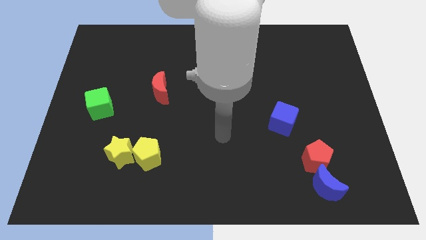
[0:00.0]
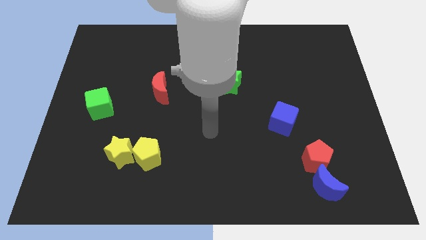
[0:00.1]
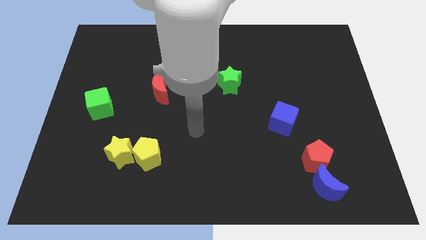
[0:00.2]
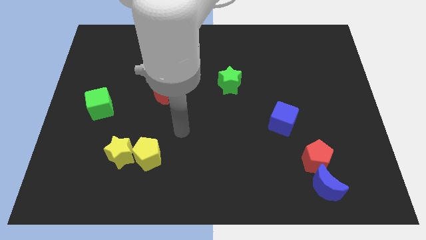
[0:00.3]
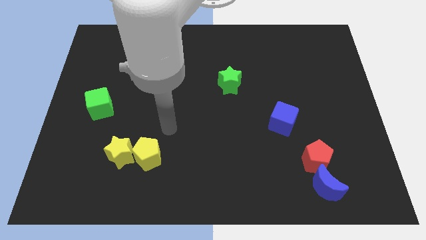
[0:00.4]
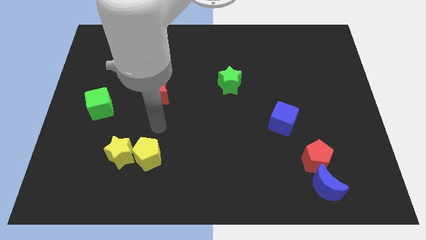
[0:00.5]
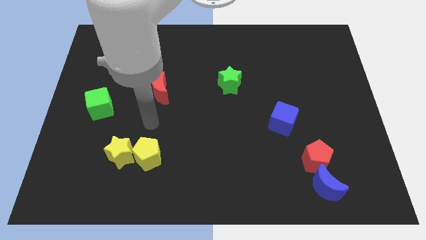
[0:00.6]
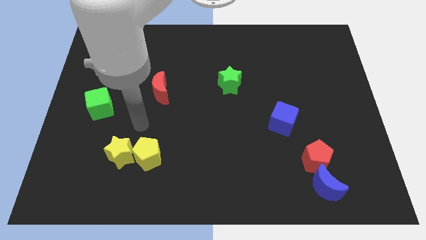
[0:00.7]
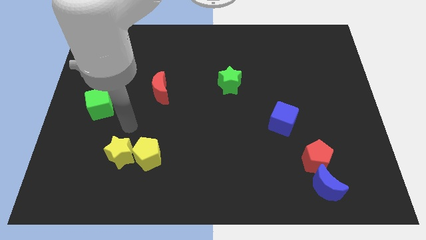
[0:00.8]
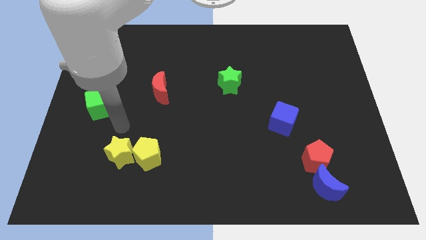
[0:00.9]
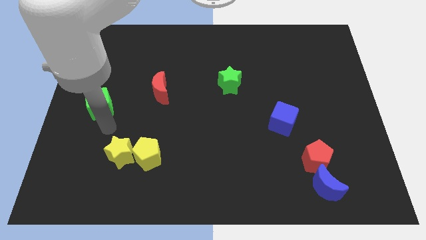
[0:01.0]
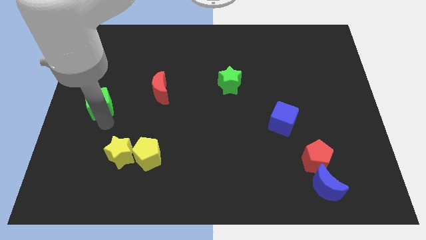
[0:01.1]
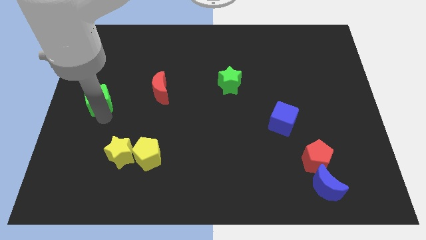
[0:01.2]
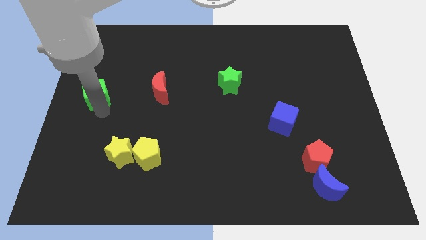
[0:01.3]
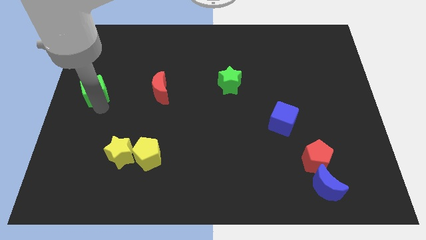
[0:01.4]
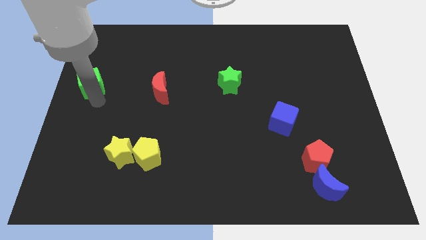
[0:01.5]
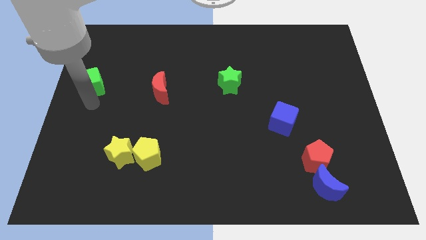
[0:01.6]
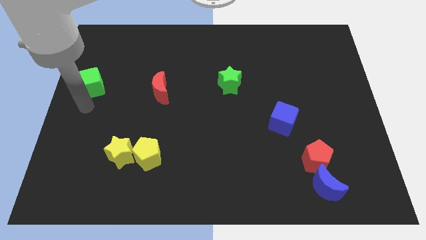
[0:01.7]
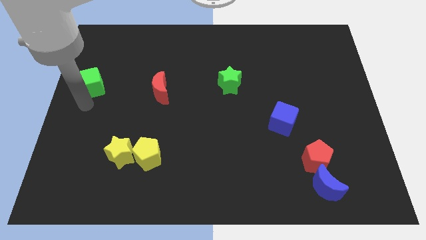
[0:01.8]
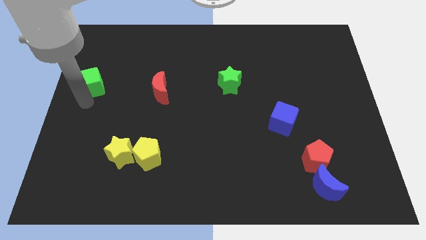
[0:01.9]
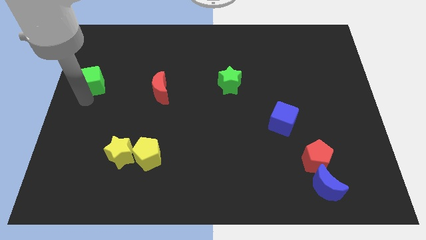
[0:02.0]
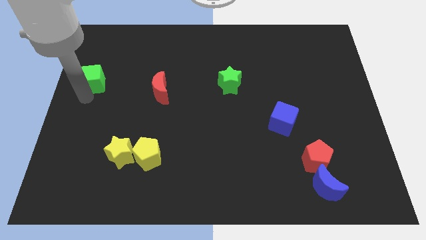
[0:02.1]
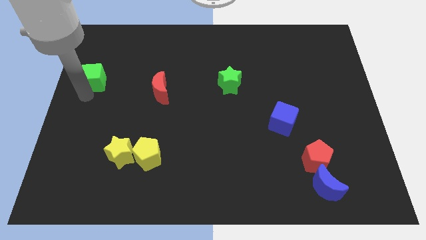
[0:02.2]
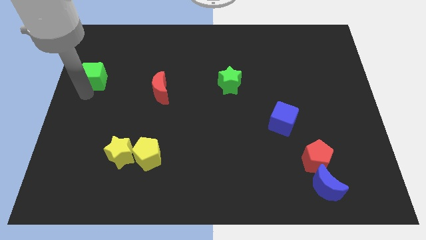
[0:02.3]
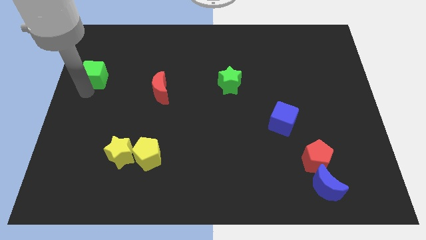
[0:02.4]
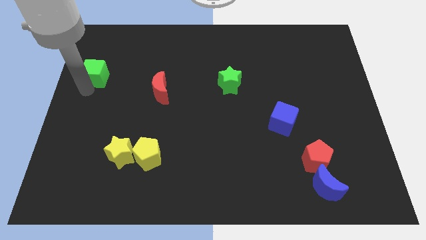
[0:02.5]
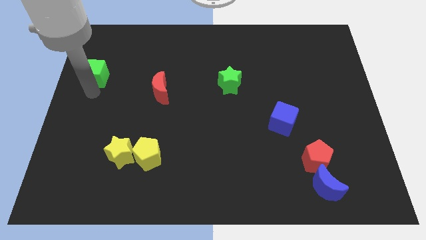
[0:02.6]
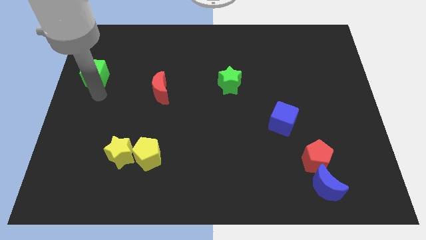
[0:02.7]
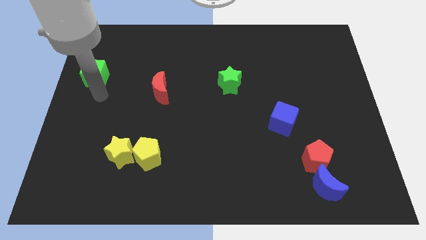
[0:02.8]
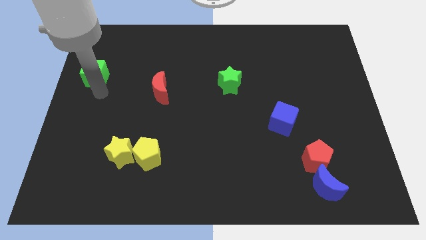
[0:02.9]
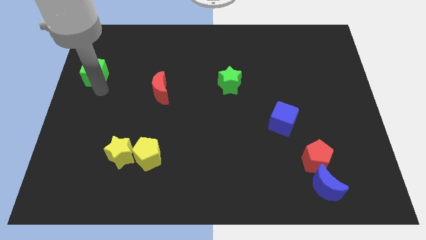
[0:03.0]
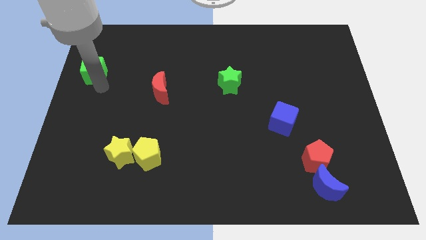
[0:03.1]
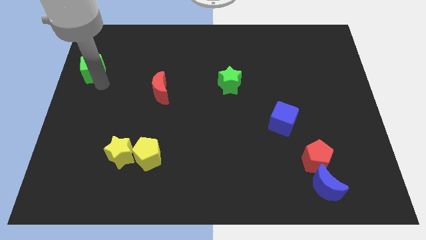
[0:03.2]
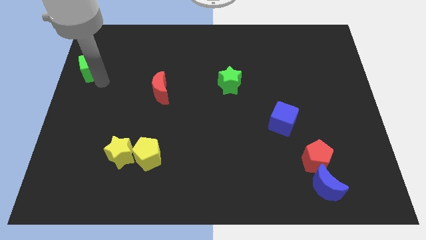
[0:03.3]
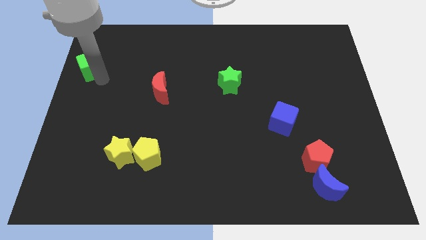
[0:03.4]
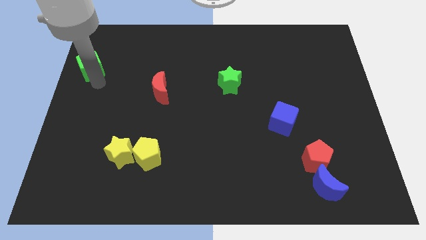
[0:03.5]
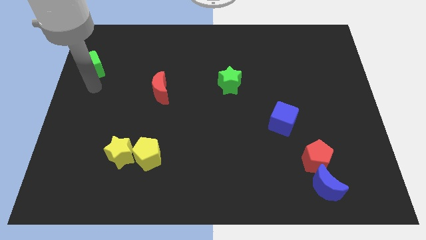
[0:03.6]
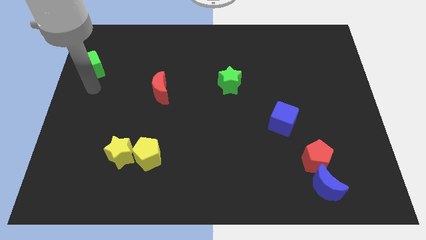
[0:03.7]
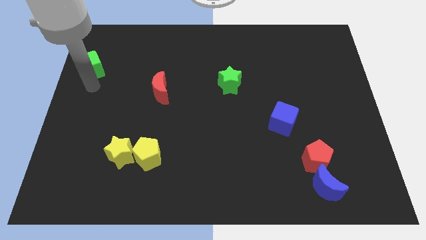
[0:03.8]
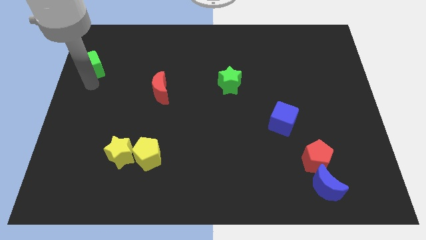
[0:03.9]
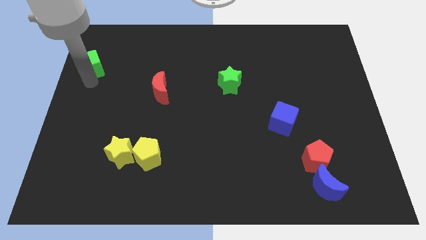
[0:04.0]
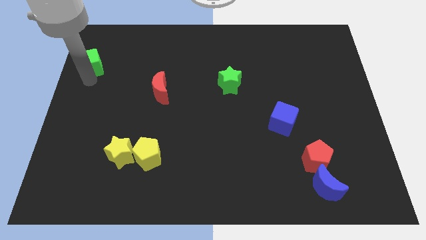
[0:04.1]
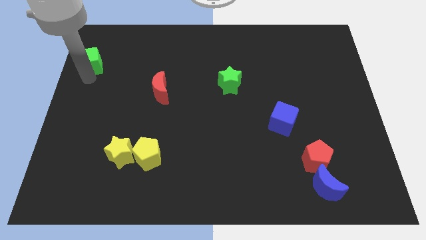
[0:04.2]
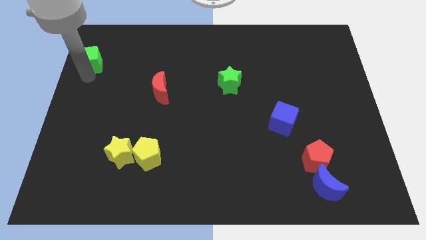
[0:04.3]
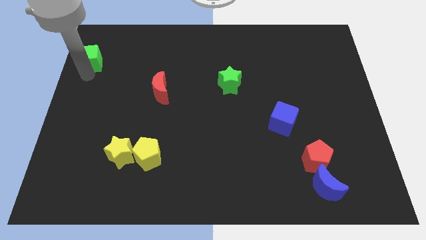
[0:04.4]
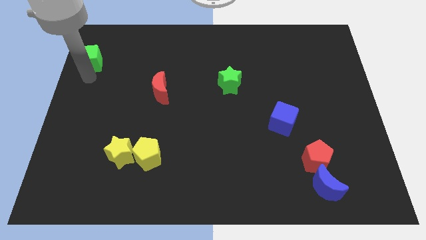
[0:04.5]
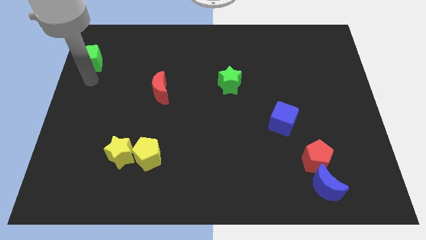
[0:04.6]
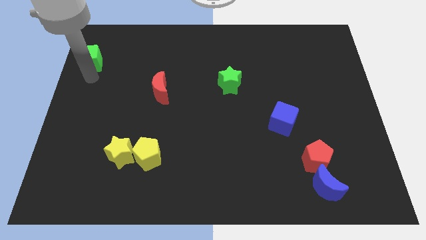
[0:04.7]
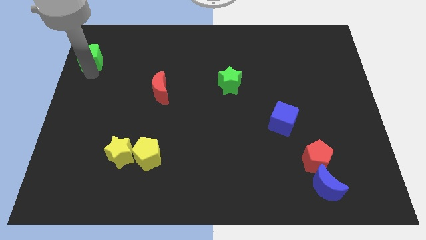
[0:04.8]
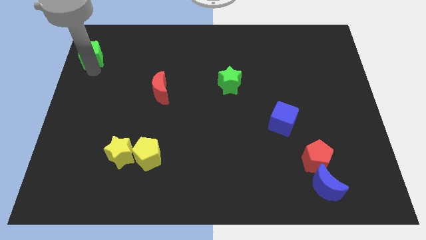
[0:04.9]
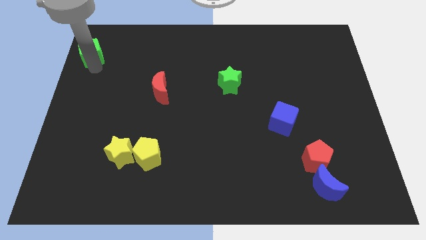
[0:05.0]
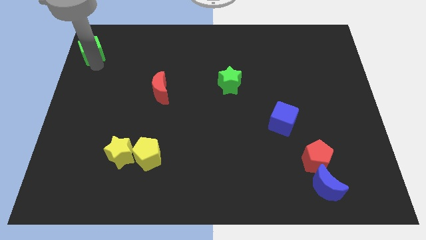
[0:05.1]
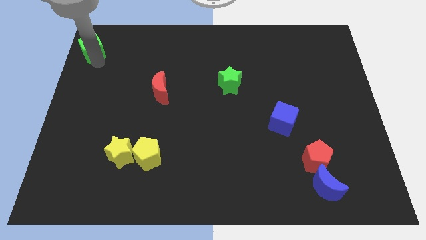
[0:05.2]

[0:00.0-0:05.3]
put the green cube to the top left corner

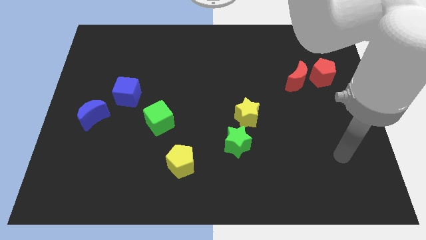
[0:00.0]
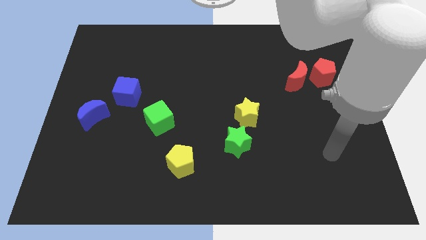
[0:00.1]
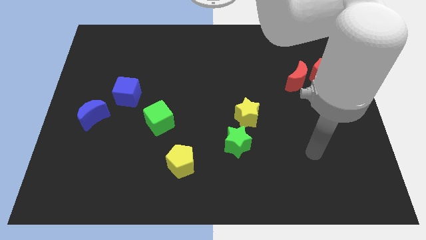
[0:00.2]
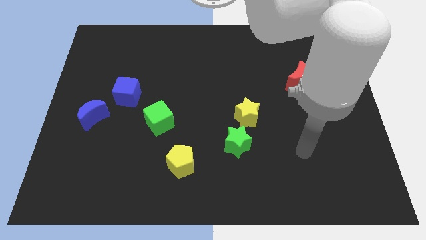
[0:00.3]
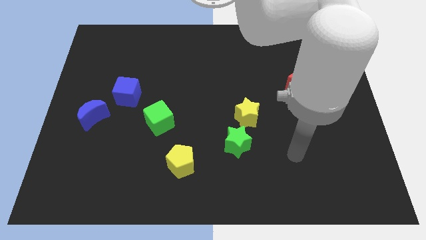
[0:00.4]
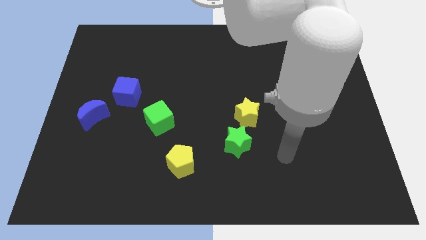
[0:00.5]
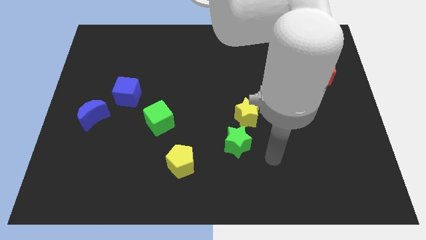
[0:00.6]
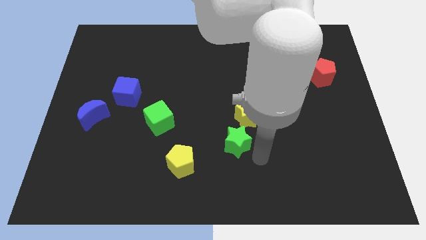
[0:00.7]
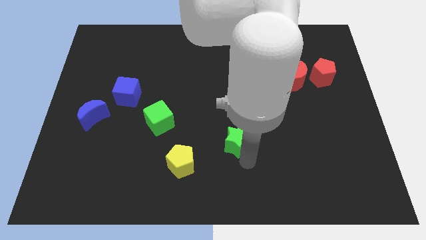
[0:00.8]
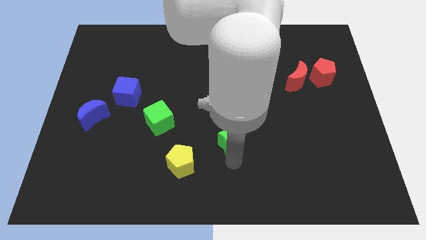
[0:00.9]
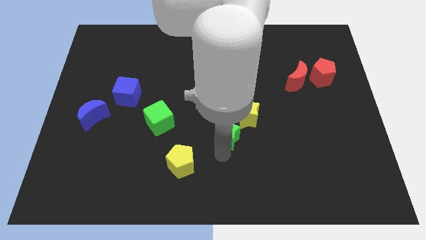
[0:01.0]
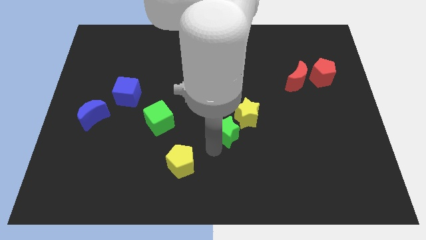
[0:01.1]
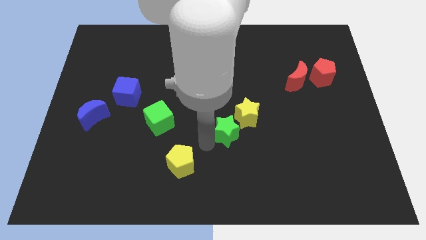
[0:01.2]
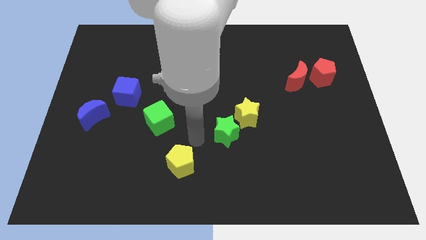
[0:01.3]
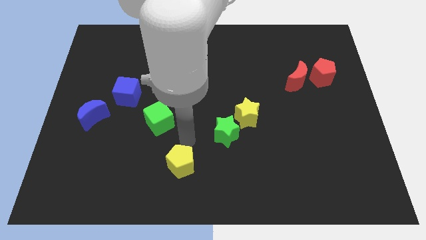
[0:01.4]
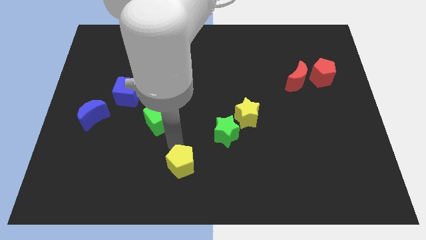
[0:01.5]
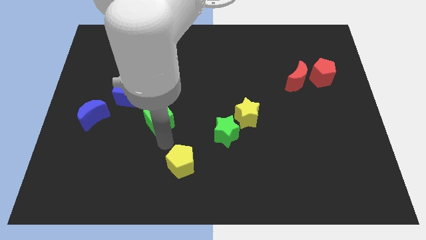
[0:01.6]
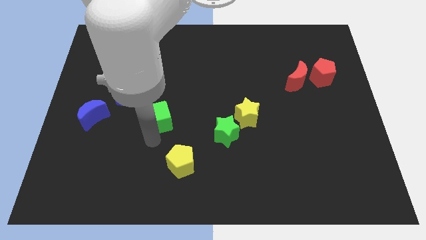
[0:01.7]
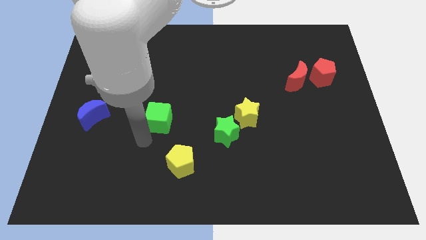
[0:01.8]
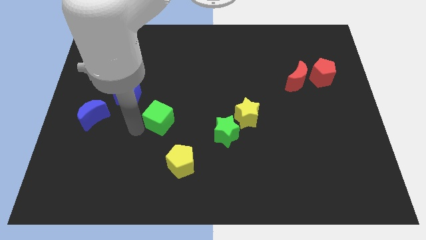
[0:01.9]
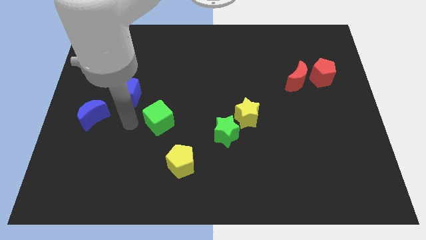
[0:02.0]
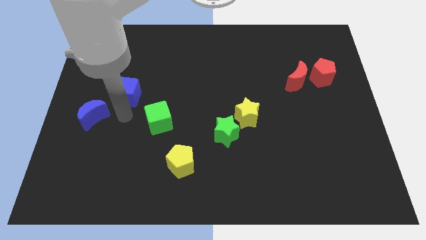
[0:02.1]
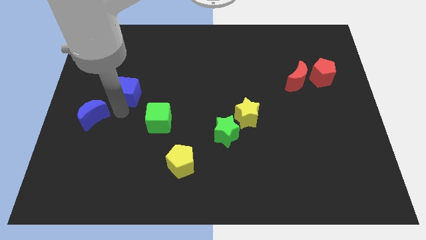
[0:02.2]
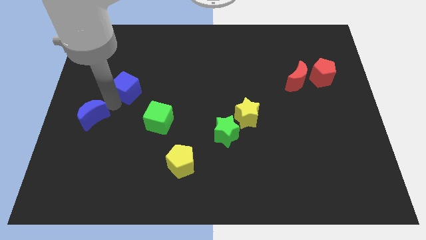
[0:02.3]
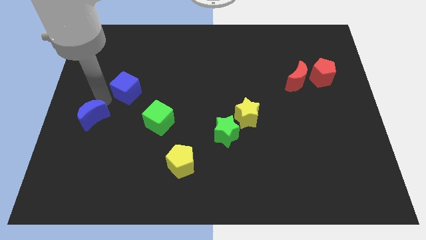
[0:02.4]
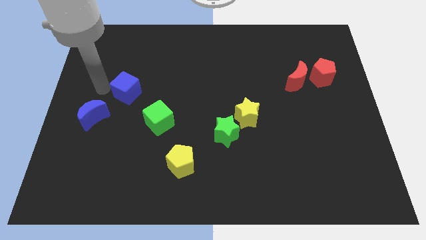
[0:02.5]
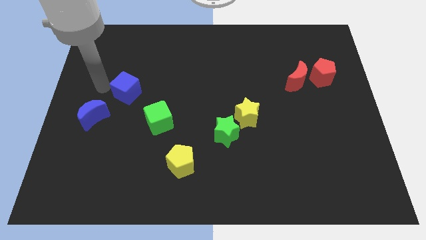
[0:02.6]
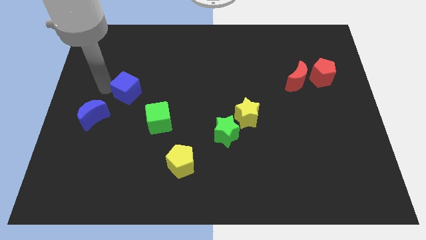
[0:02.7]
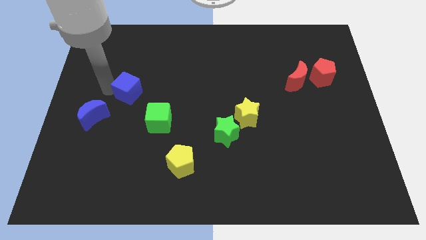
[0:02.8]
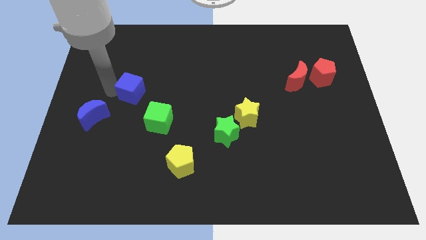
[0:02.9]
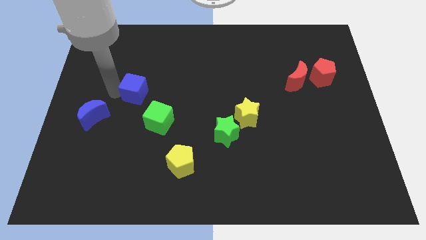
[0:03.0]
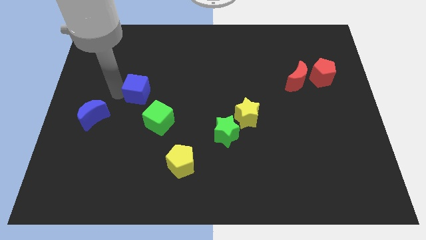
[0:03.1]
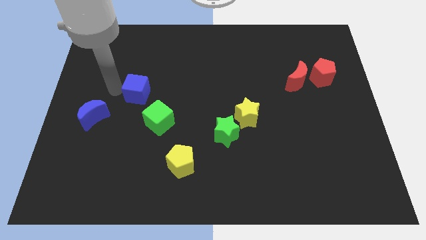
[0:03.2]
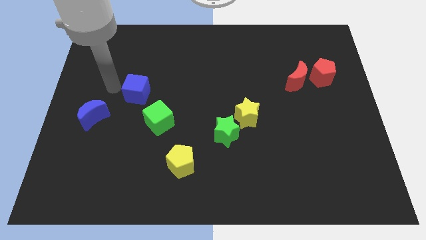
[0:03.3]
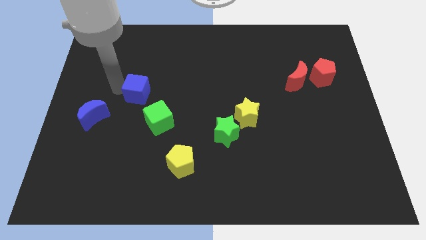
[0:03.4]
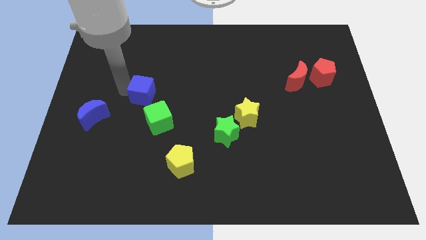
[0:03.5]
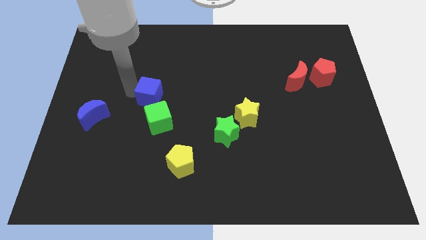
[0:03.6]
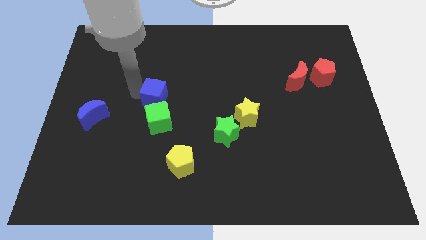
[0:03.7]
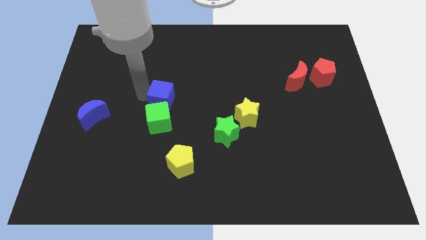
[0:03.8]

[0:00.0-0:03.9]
put the blue cube to the center
